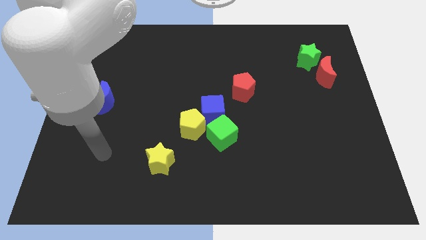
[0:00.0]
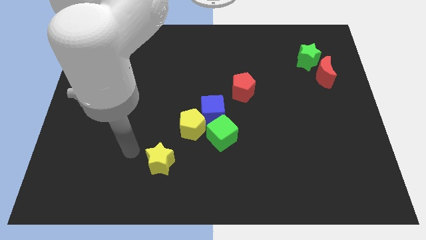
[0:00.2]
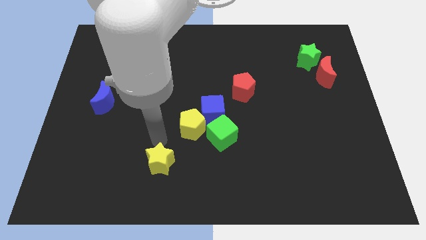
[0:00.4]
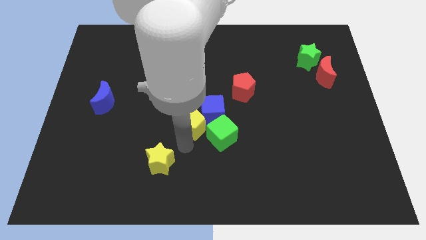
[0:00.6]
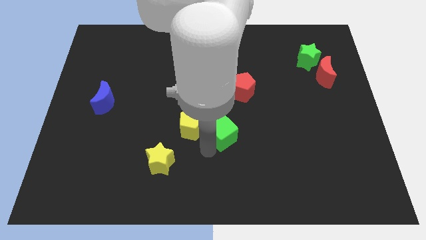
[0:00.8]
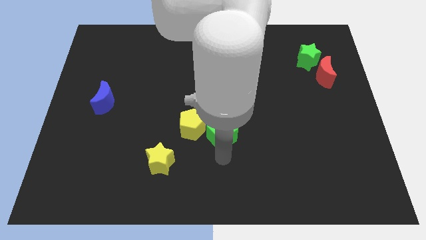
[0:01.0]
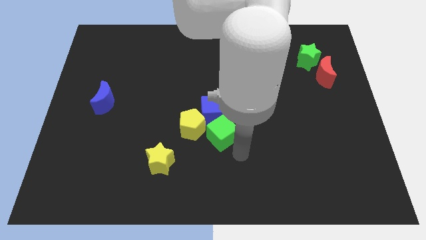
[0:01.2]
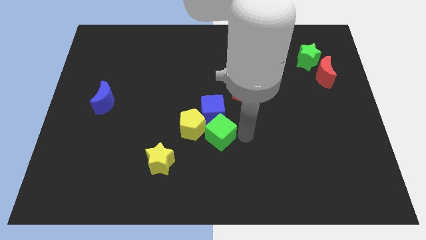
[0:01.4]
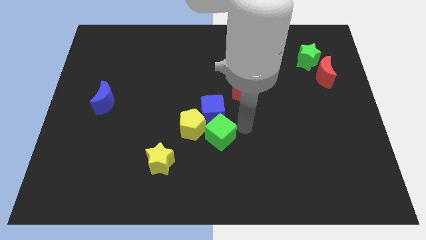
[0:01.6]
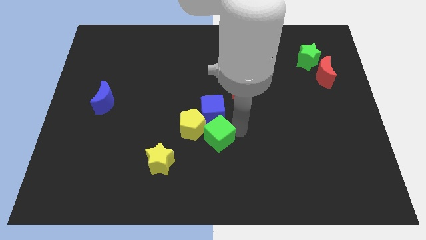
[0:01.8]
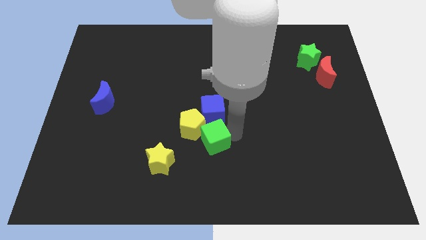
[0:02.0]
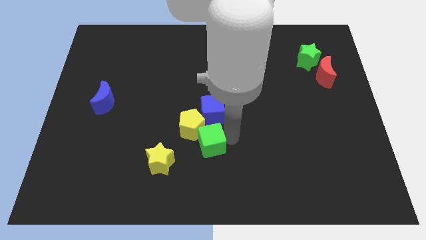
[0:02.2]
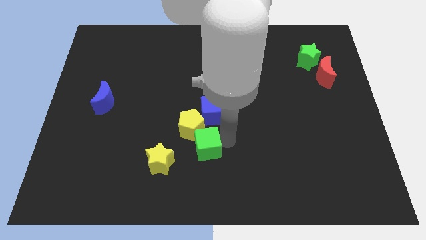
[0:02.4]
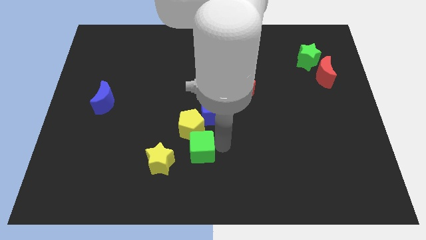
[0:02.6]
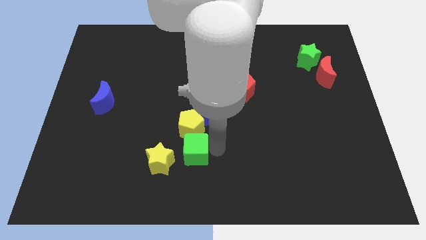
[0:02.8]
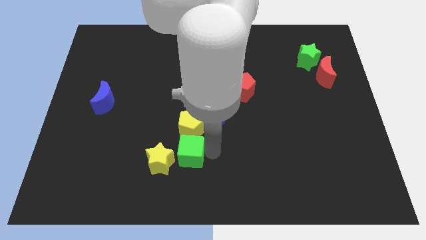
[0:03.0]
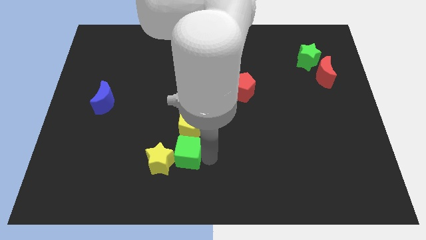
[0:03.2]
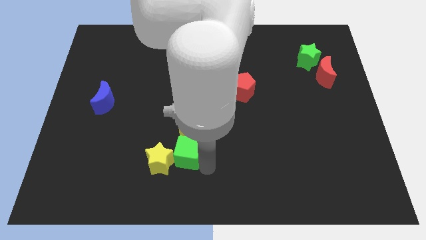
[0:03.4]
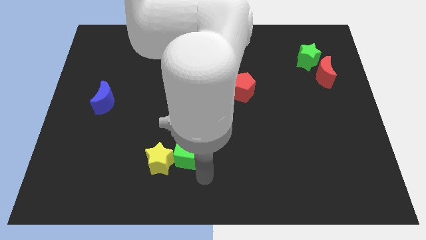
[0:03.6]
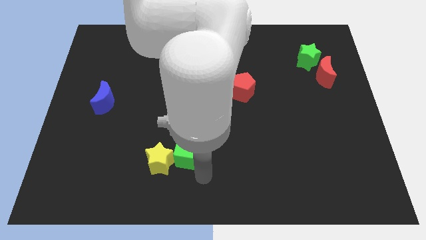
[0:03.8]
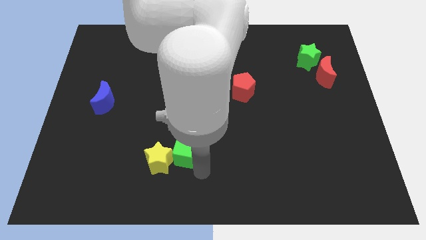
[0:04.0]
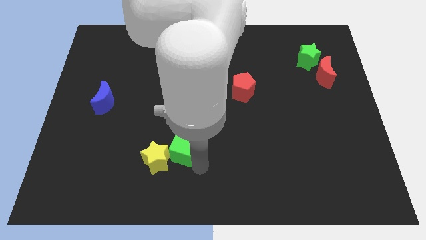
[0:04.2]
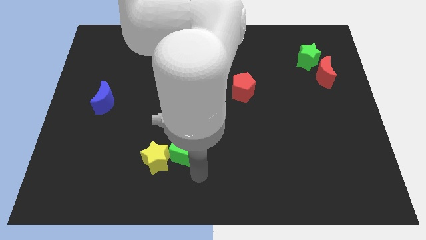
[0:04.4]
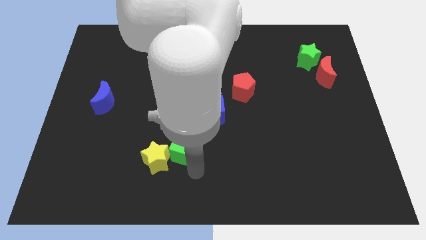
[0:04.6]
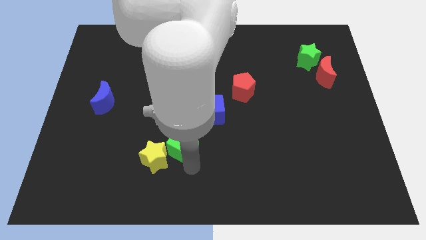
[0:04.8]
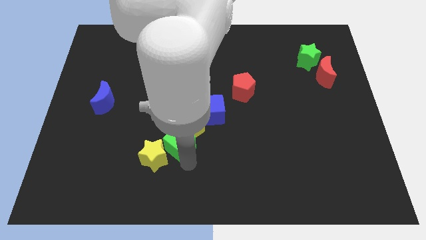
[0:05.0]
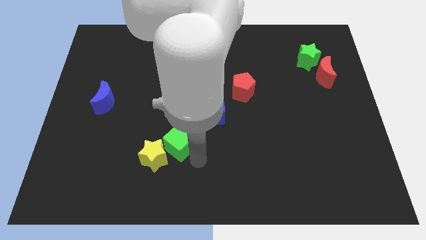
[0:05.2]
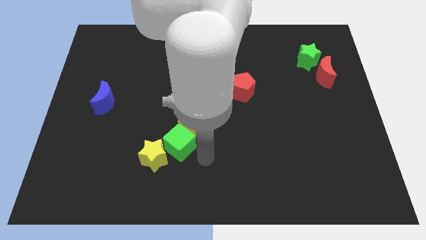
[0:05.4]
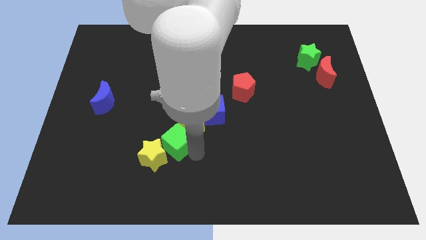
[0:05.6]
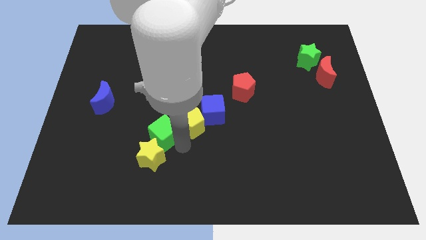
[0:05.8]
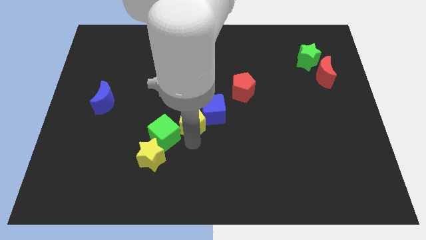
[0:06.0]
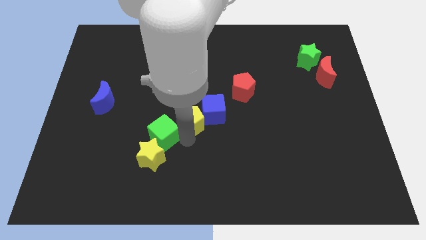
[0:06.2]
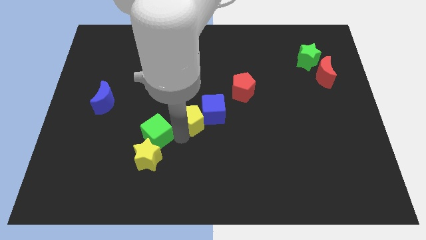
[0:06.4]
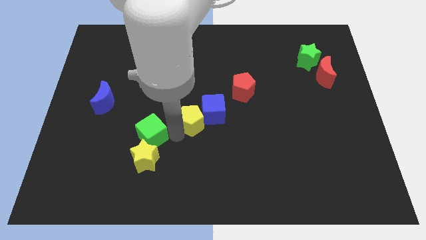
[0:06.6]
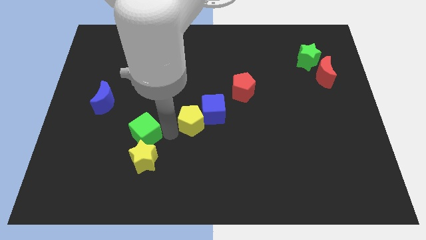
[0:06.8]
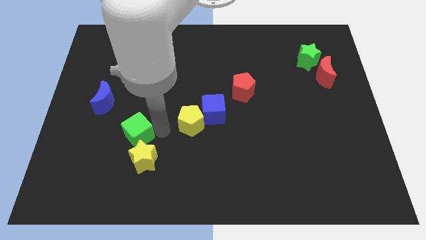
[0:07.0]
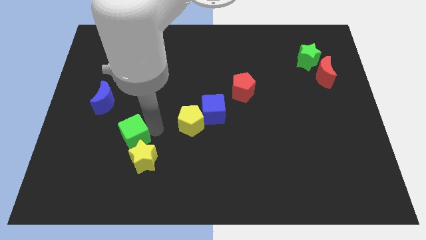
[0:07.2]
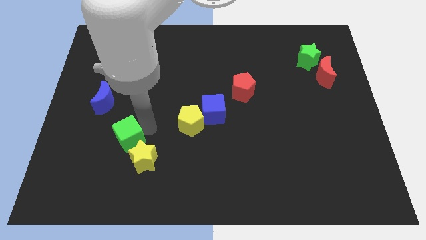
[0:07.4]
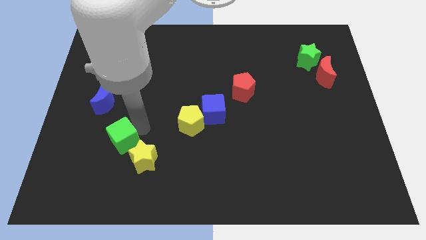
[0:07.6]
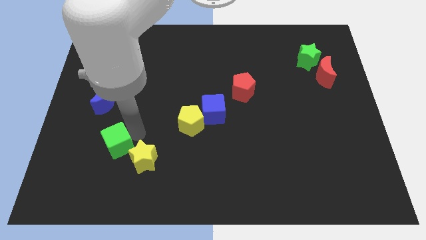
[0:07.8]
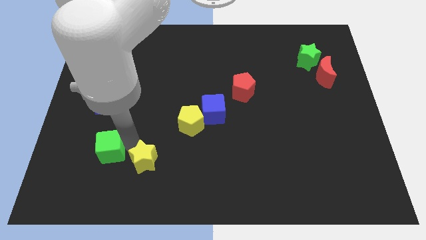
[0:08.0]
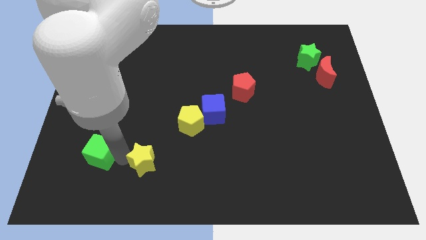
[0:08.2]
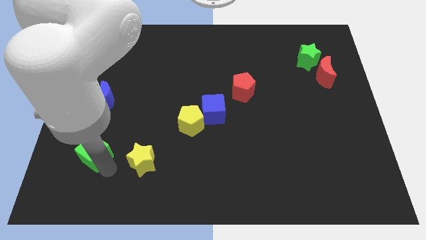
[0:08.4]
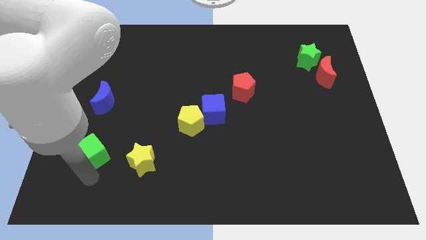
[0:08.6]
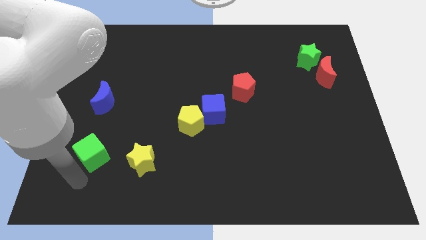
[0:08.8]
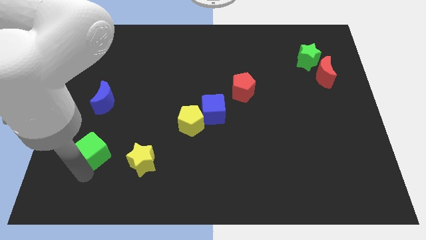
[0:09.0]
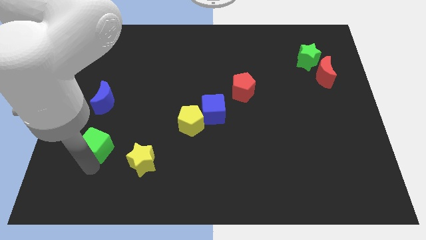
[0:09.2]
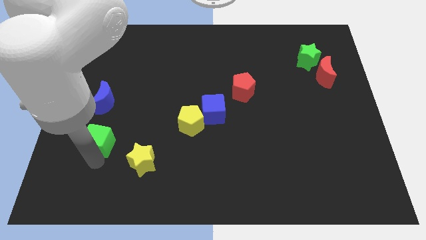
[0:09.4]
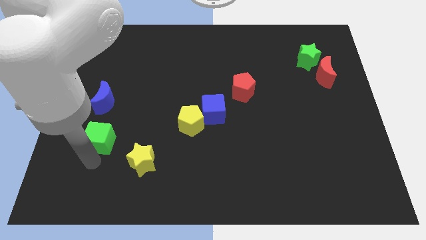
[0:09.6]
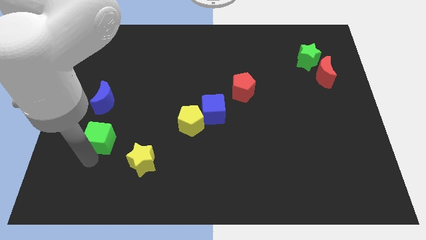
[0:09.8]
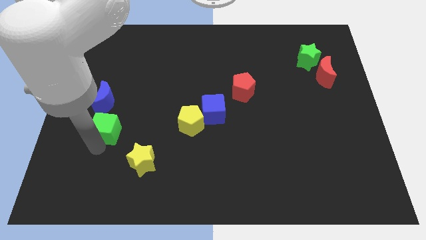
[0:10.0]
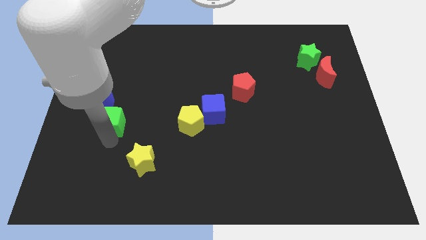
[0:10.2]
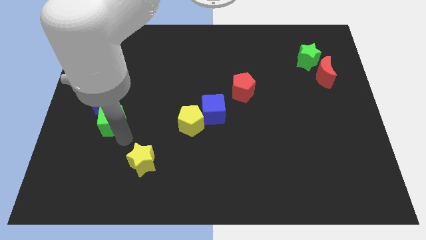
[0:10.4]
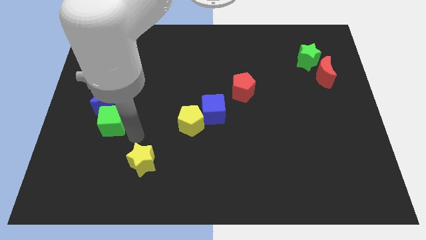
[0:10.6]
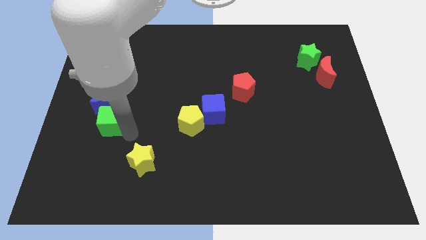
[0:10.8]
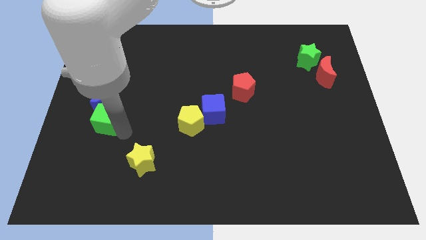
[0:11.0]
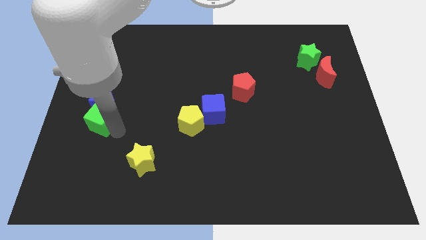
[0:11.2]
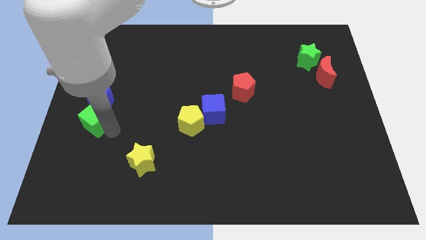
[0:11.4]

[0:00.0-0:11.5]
move the green cube to the left side
